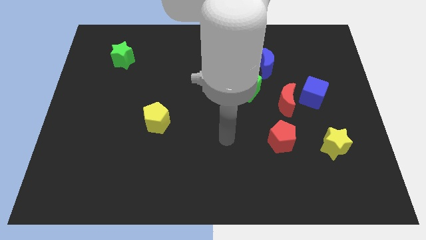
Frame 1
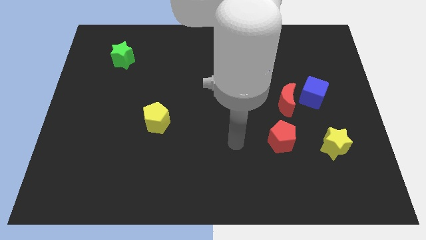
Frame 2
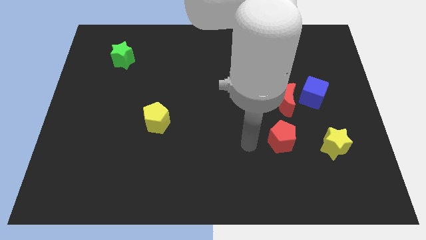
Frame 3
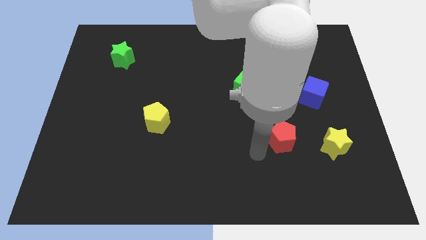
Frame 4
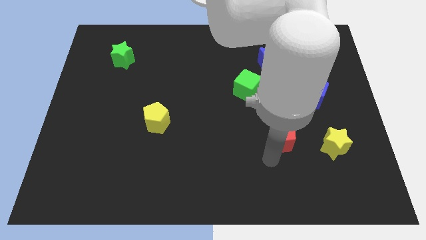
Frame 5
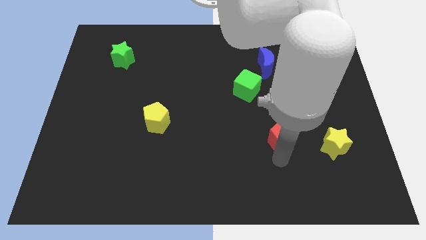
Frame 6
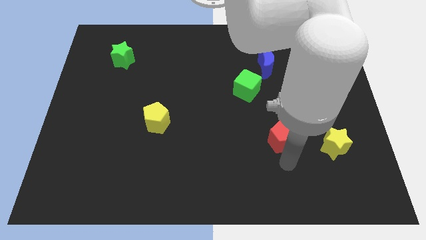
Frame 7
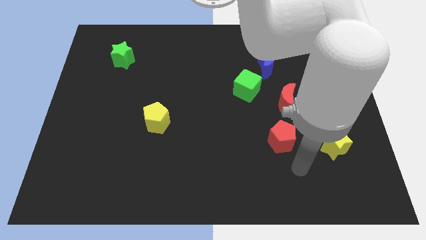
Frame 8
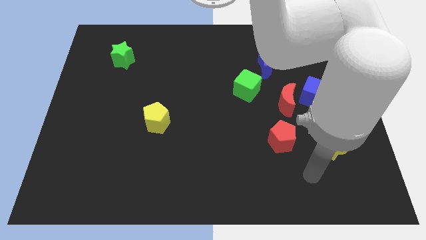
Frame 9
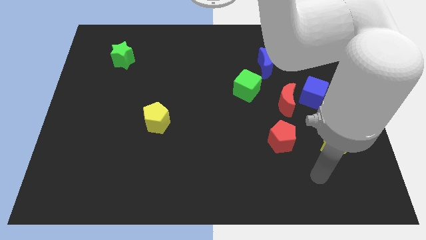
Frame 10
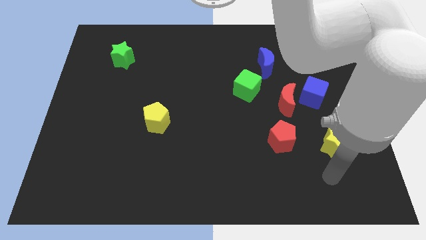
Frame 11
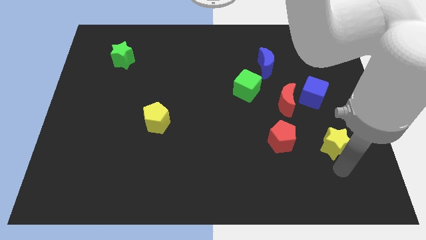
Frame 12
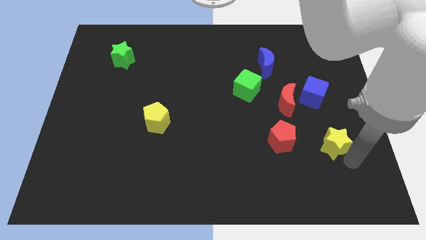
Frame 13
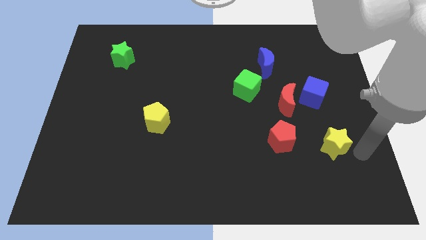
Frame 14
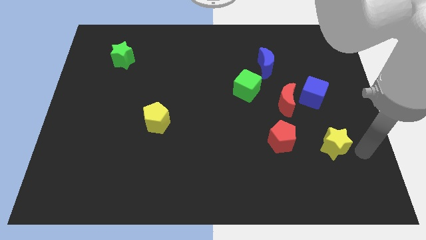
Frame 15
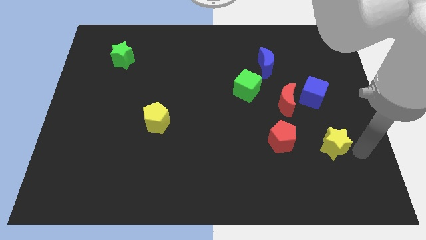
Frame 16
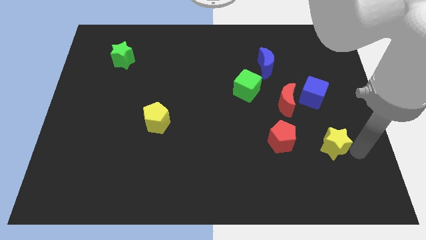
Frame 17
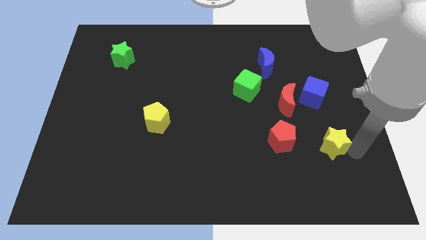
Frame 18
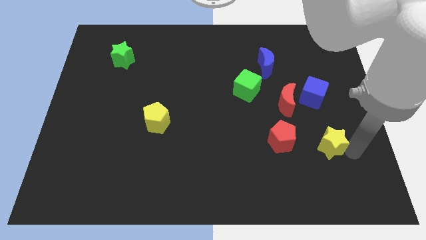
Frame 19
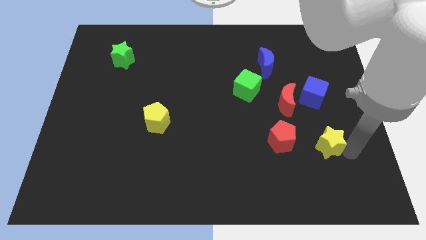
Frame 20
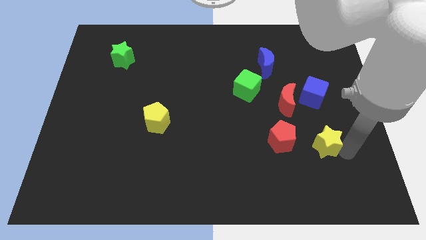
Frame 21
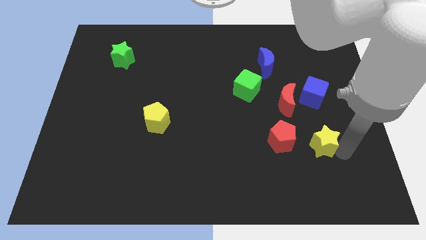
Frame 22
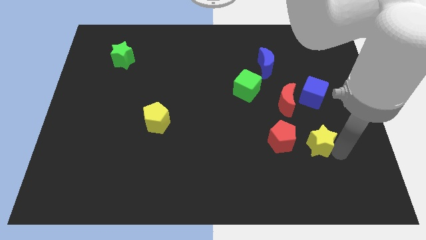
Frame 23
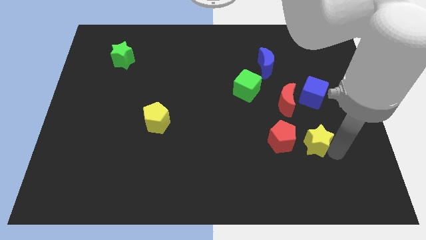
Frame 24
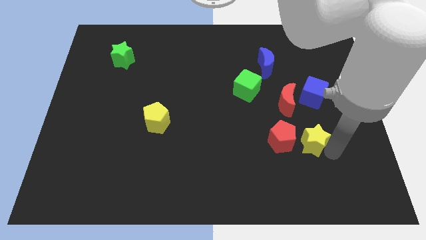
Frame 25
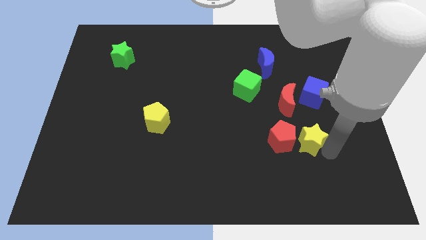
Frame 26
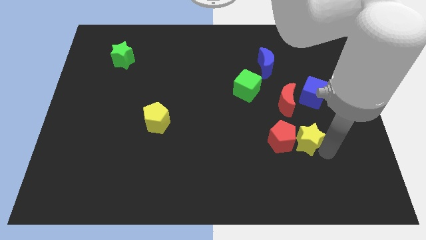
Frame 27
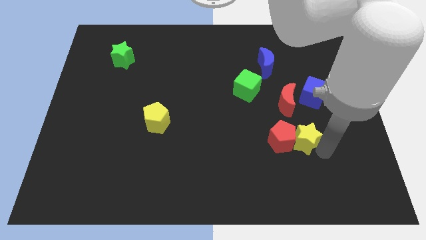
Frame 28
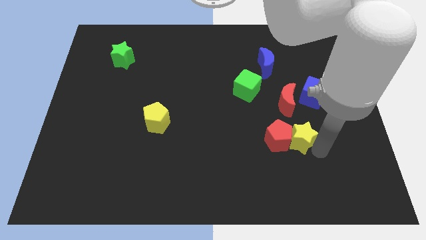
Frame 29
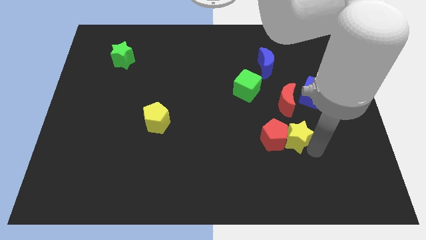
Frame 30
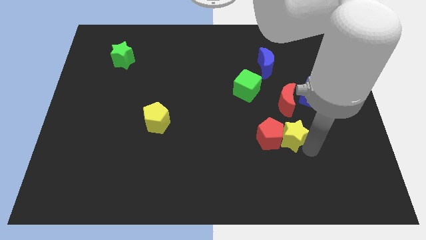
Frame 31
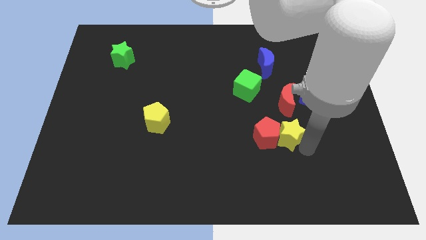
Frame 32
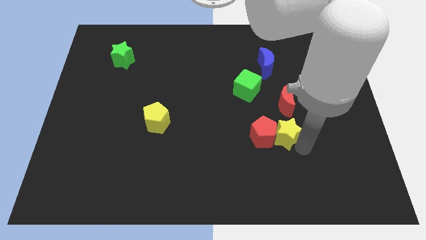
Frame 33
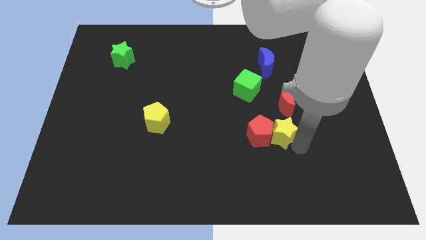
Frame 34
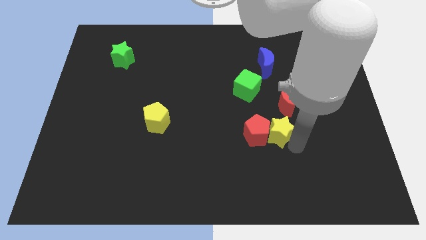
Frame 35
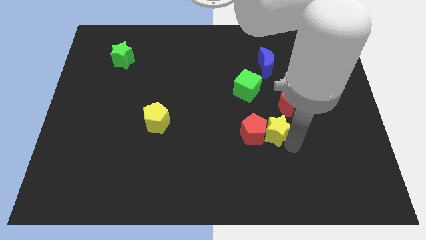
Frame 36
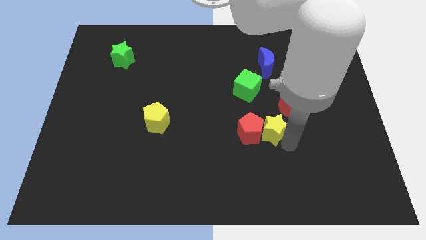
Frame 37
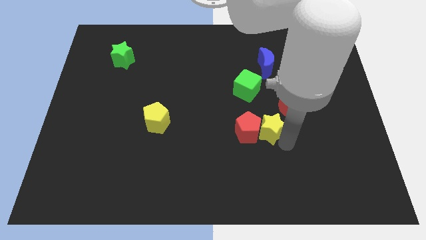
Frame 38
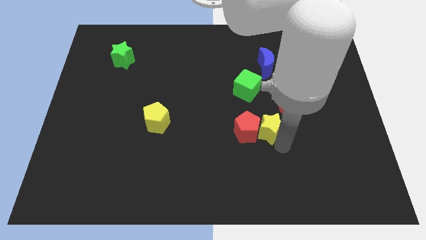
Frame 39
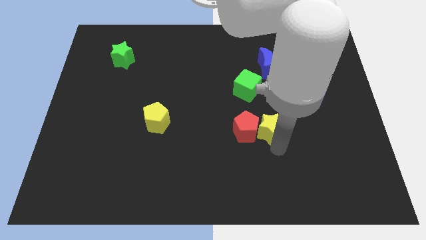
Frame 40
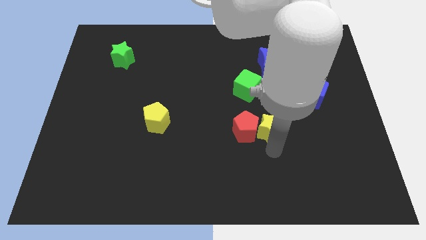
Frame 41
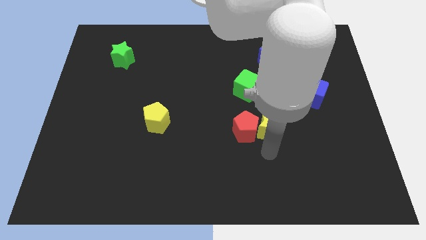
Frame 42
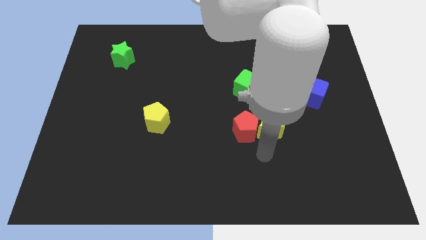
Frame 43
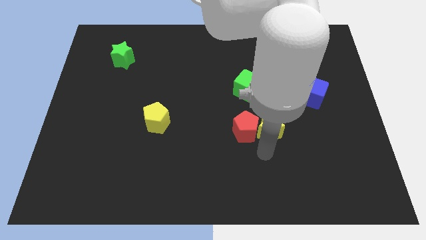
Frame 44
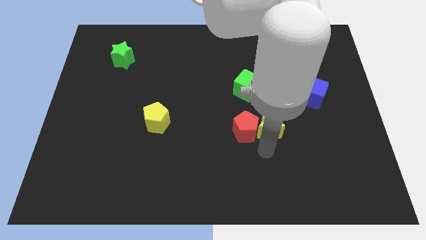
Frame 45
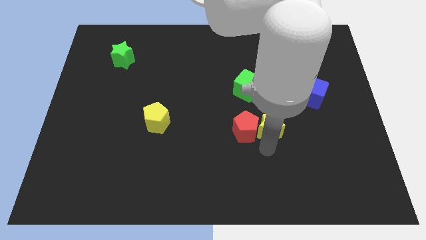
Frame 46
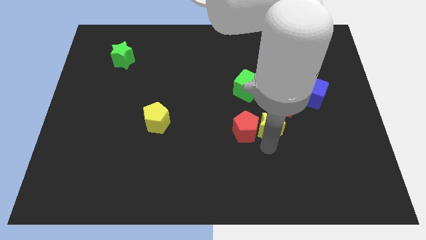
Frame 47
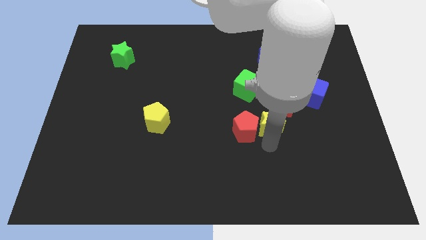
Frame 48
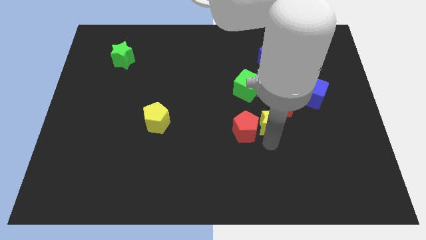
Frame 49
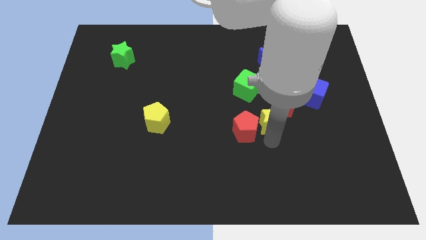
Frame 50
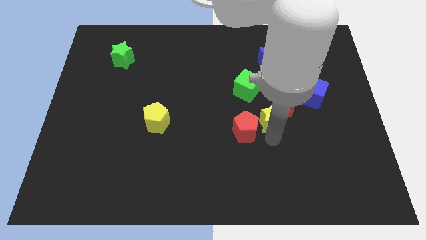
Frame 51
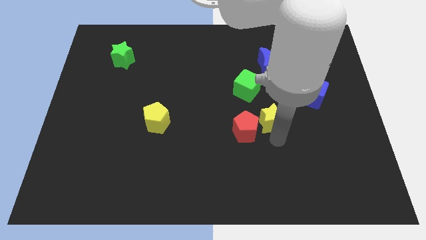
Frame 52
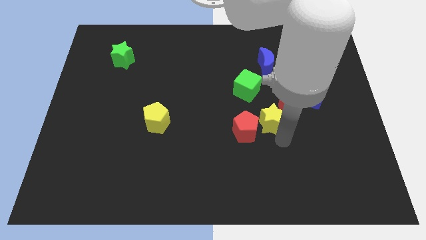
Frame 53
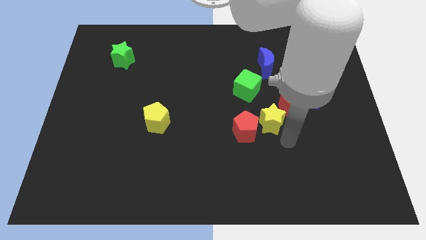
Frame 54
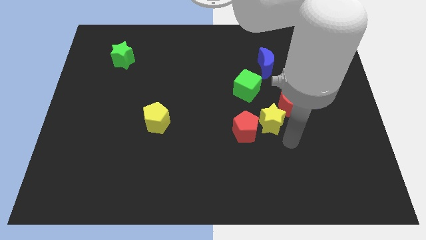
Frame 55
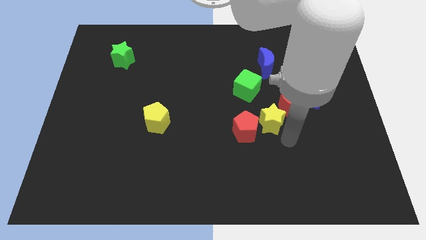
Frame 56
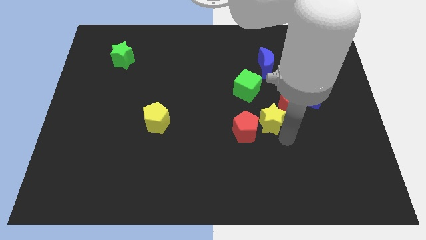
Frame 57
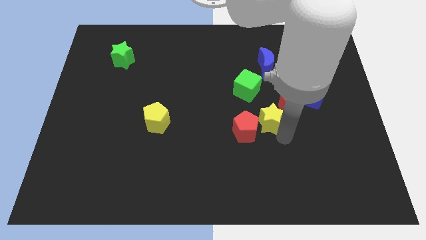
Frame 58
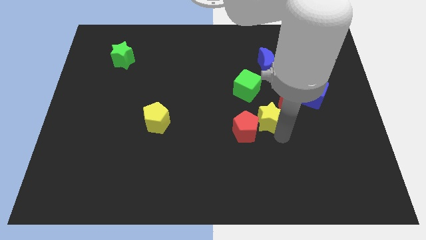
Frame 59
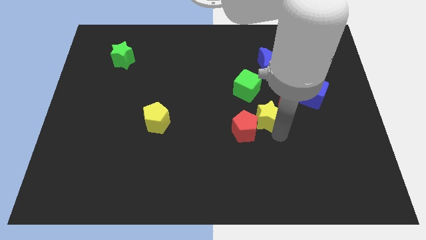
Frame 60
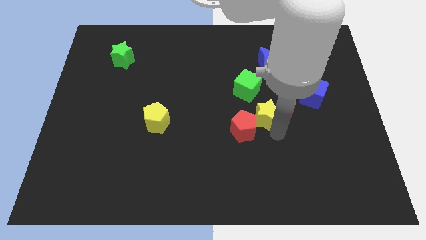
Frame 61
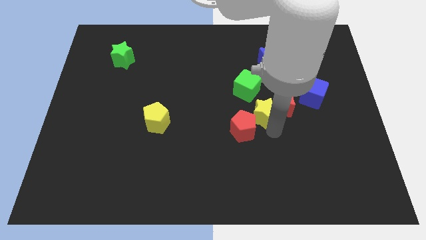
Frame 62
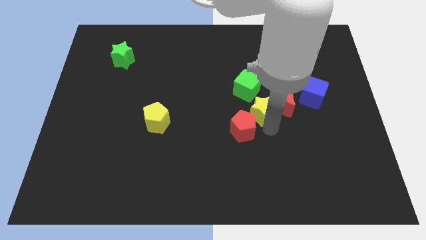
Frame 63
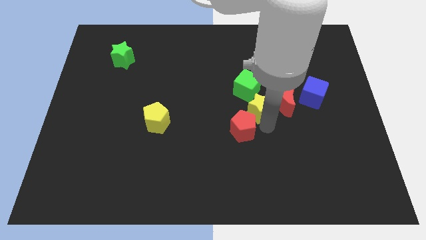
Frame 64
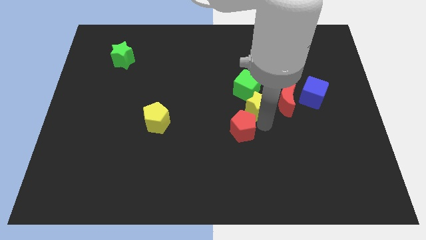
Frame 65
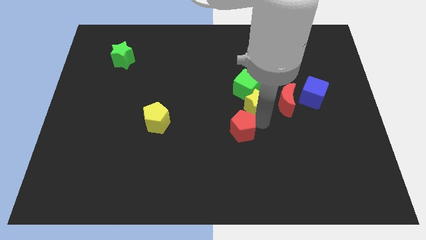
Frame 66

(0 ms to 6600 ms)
put the yellow star towards the green cube
